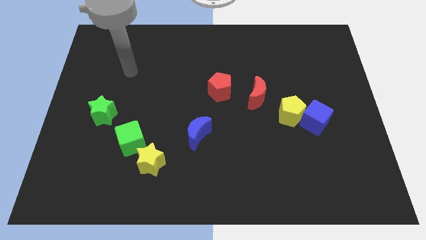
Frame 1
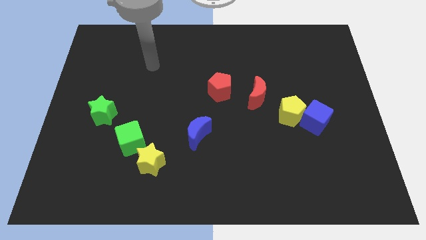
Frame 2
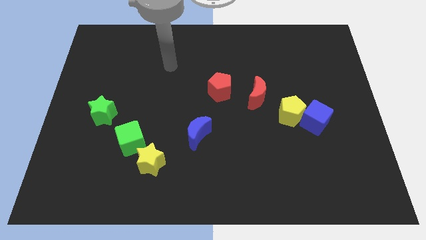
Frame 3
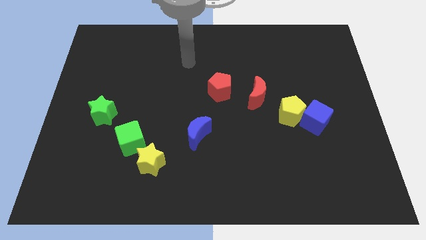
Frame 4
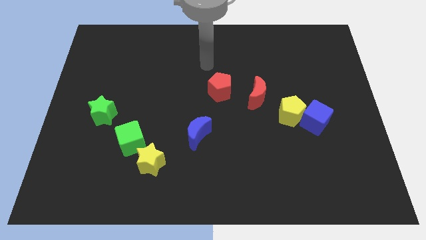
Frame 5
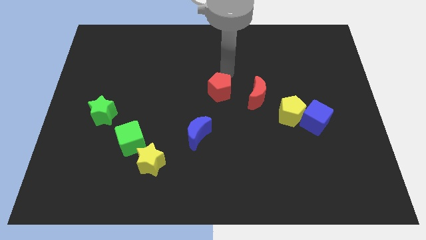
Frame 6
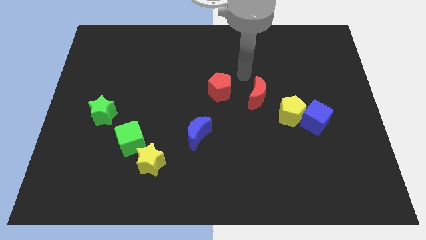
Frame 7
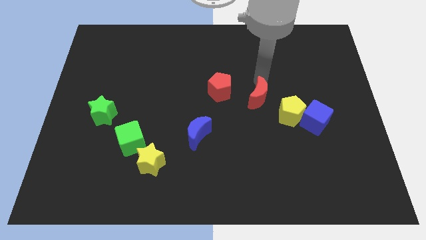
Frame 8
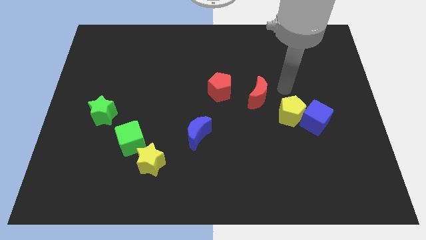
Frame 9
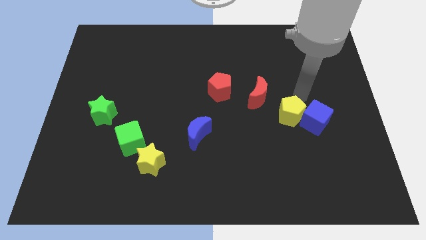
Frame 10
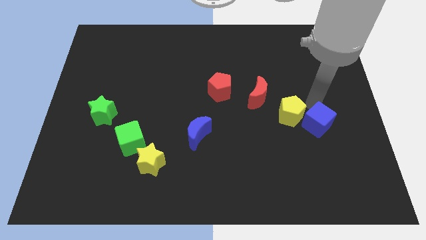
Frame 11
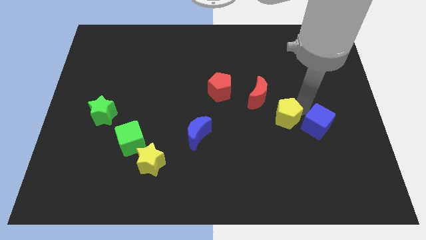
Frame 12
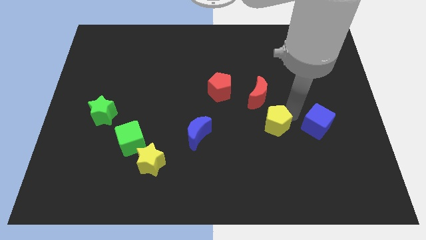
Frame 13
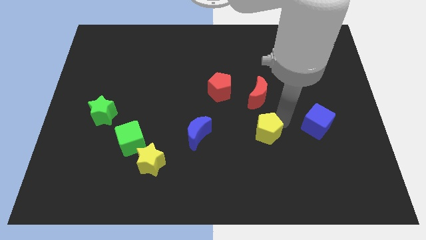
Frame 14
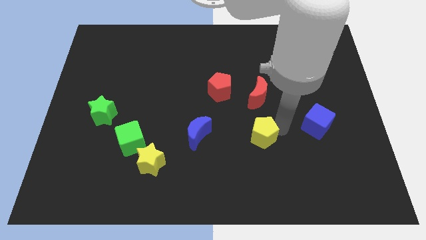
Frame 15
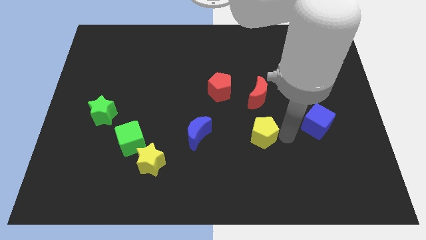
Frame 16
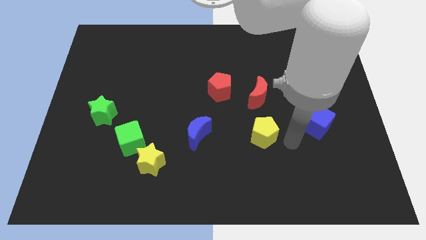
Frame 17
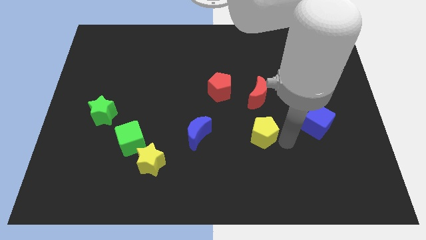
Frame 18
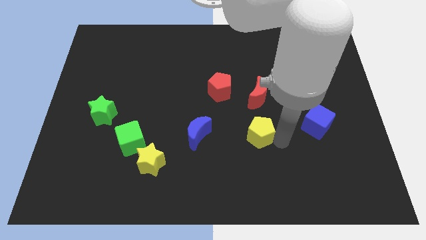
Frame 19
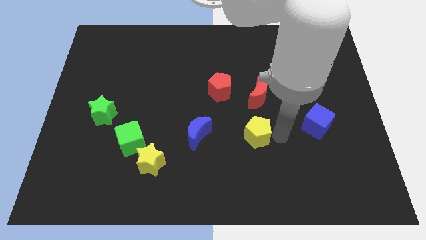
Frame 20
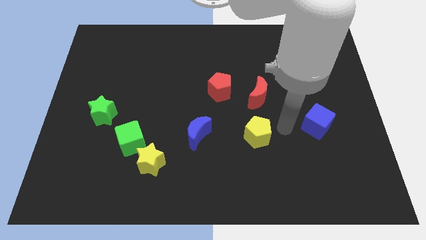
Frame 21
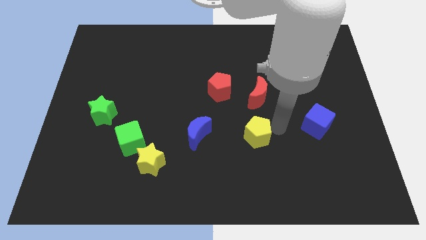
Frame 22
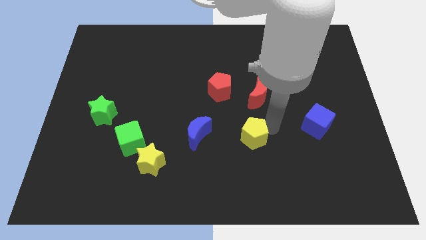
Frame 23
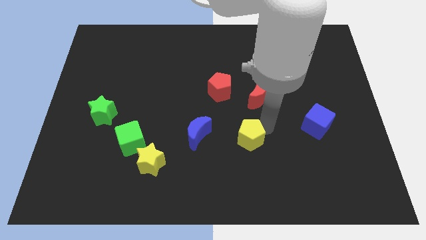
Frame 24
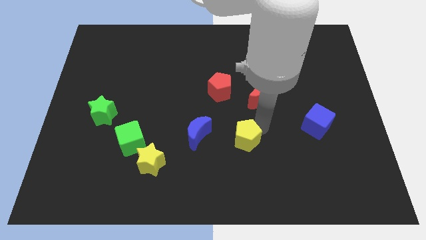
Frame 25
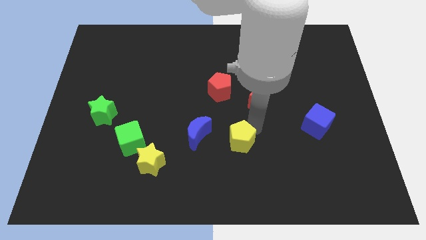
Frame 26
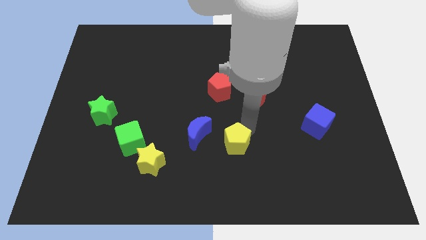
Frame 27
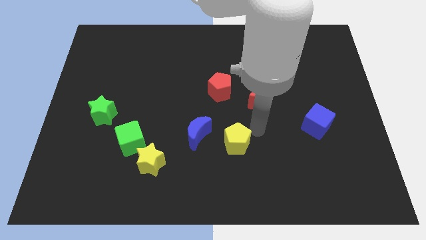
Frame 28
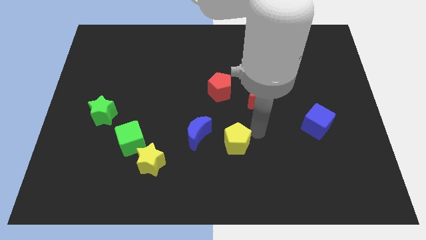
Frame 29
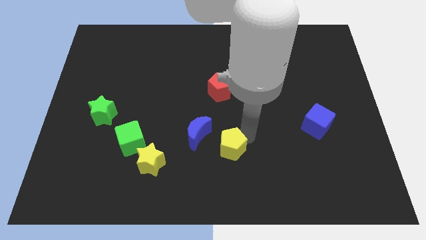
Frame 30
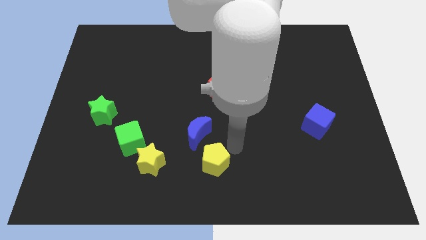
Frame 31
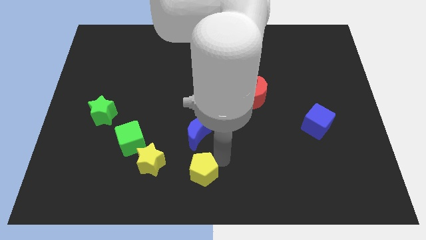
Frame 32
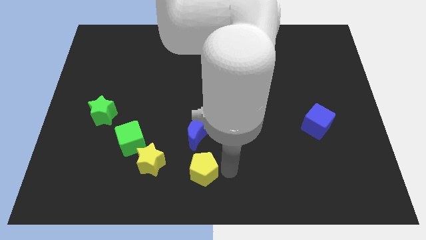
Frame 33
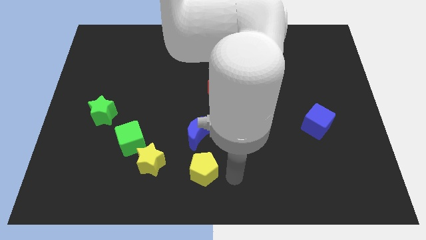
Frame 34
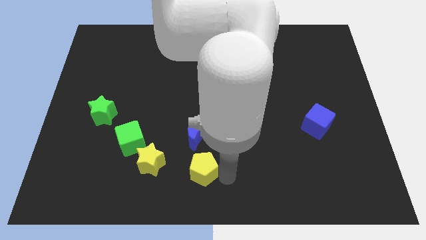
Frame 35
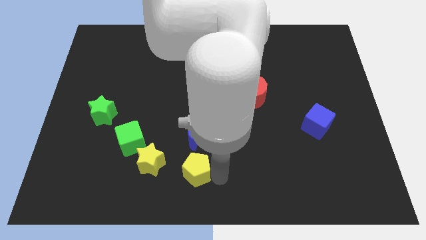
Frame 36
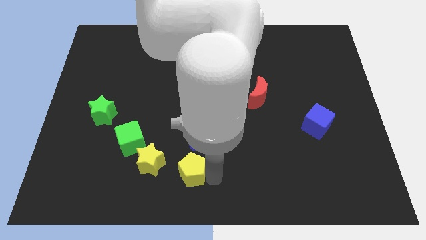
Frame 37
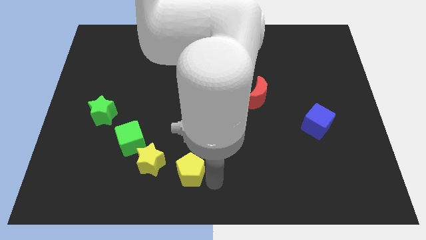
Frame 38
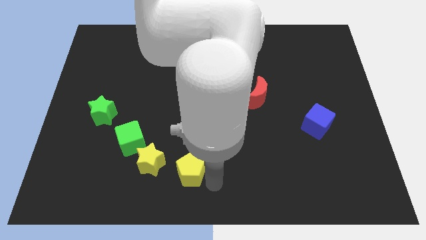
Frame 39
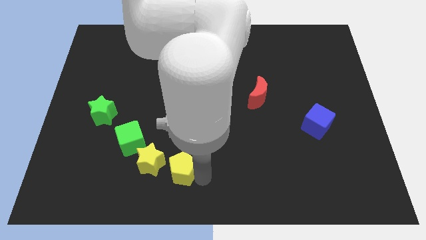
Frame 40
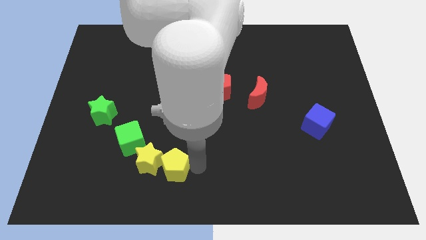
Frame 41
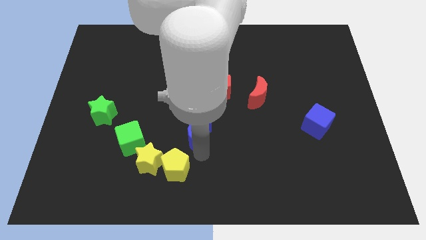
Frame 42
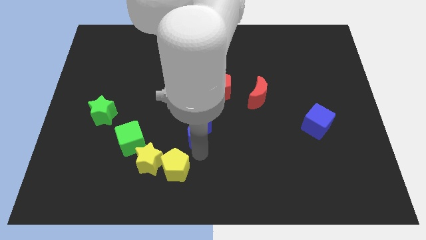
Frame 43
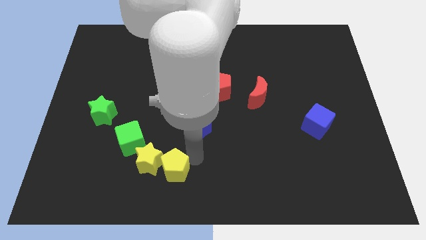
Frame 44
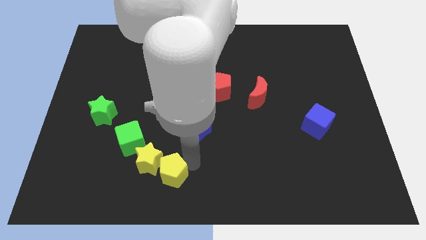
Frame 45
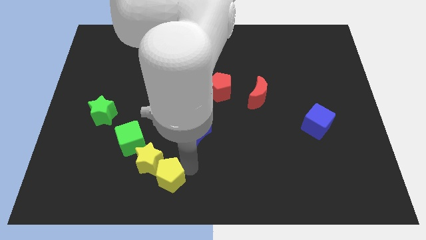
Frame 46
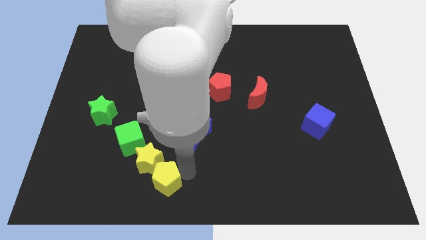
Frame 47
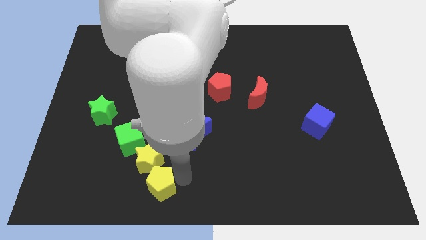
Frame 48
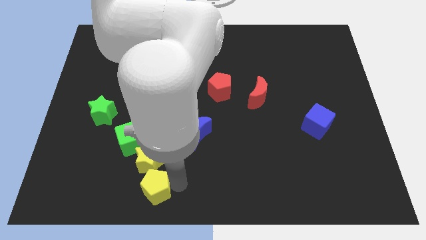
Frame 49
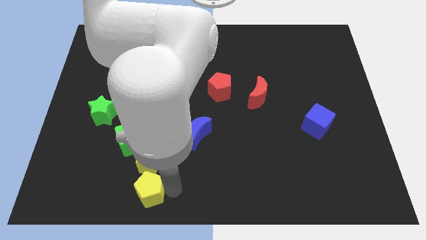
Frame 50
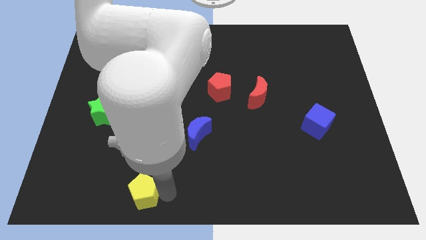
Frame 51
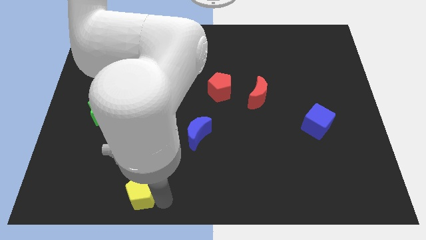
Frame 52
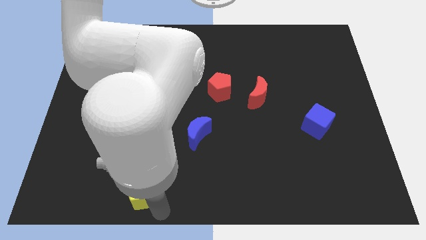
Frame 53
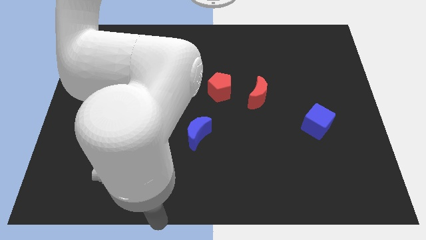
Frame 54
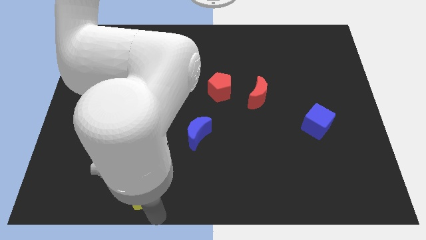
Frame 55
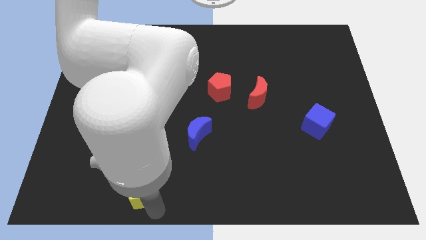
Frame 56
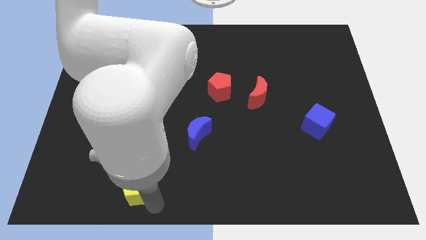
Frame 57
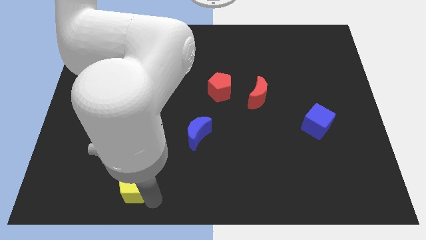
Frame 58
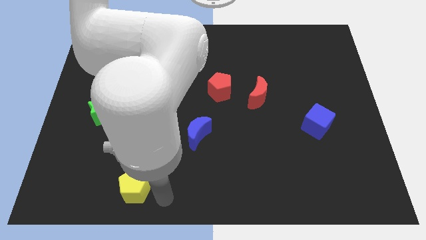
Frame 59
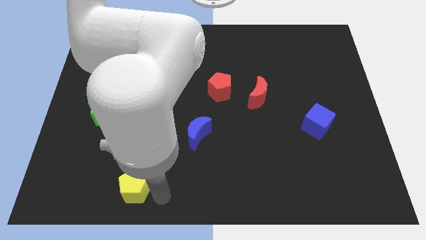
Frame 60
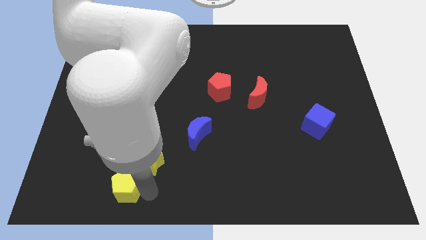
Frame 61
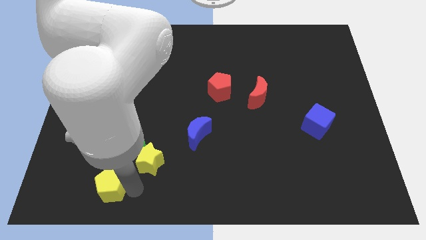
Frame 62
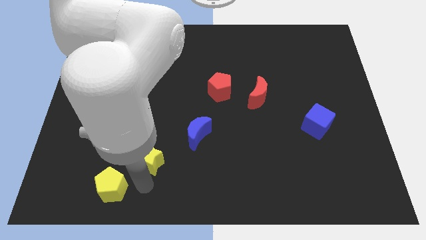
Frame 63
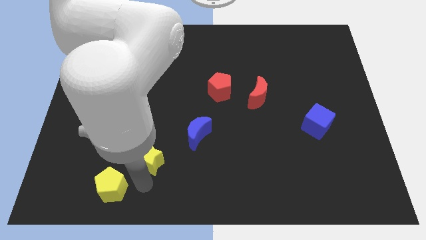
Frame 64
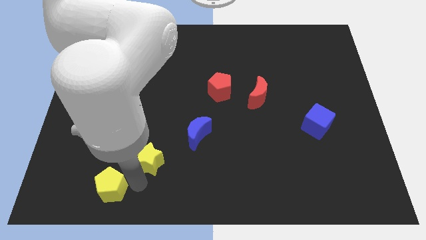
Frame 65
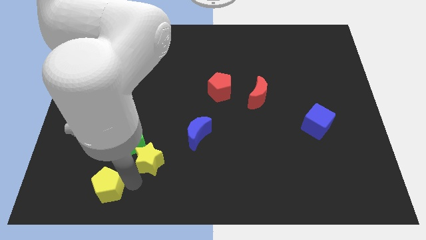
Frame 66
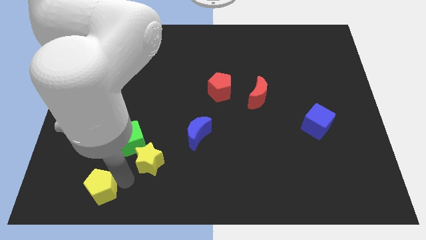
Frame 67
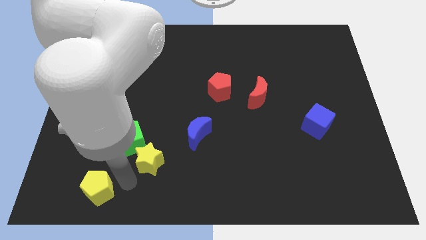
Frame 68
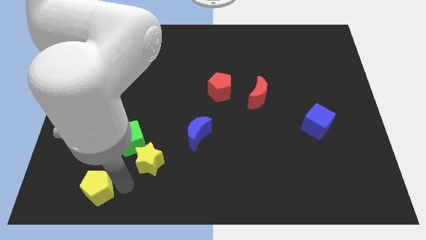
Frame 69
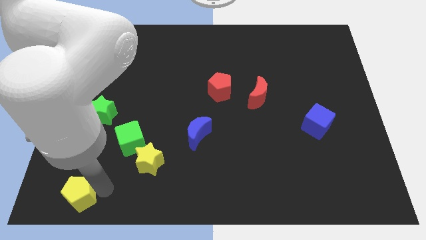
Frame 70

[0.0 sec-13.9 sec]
move the yellow pentagon to the bottom left
